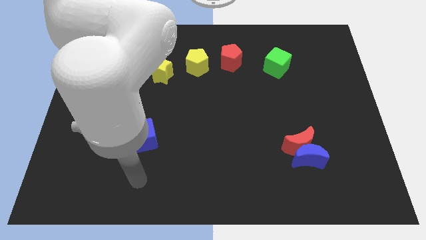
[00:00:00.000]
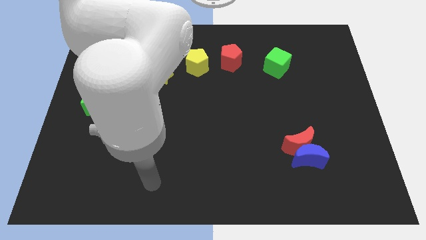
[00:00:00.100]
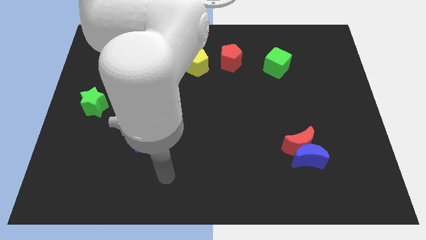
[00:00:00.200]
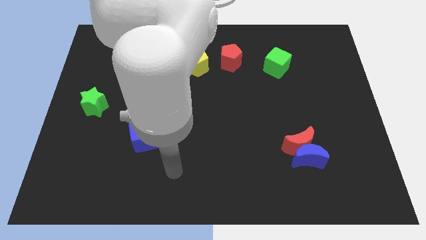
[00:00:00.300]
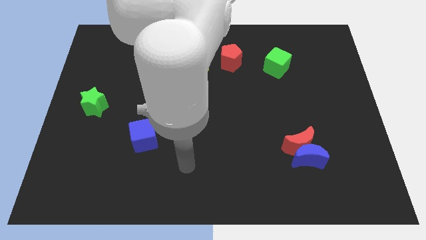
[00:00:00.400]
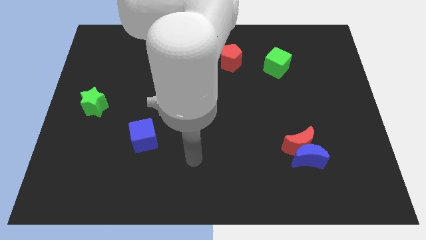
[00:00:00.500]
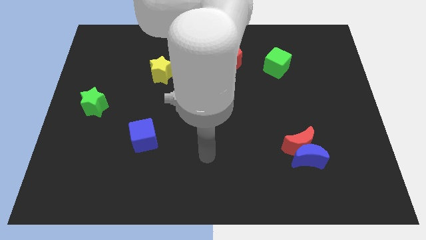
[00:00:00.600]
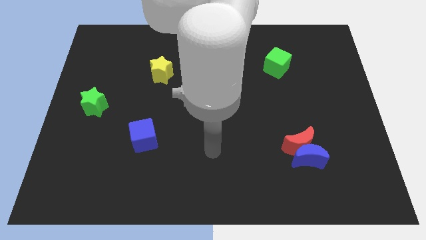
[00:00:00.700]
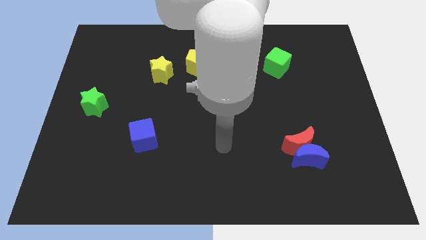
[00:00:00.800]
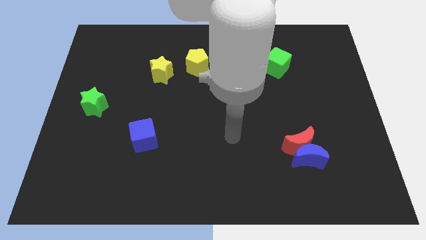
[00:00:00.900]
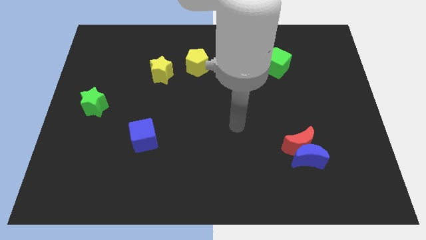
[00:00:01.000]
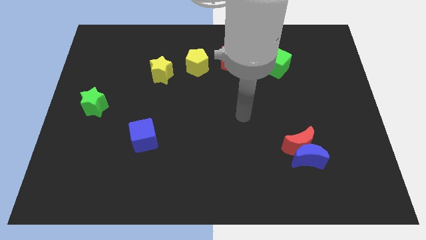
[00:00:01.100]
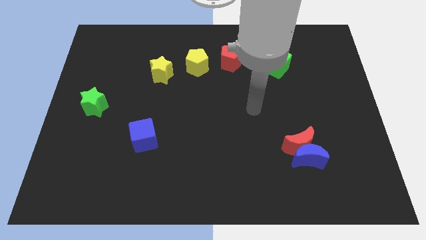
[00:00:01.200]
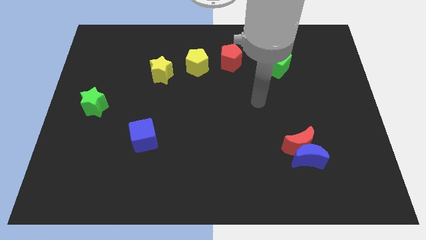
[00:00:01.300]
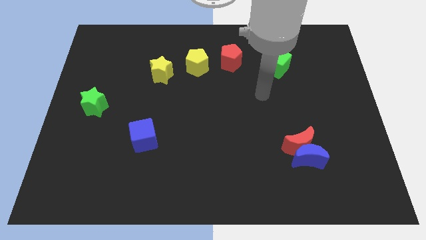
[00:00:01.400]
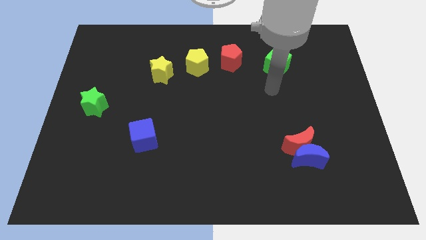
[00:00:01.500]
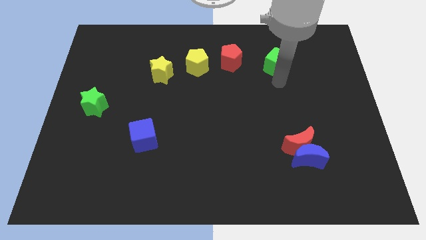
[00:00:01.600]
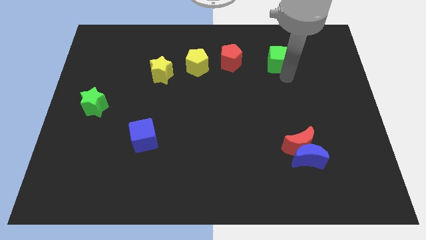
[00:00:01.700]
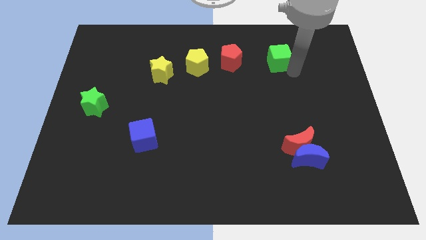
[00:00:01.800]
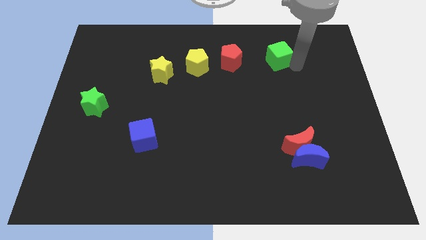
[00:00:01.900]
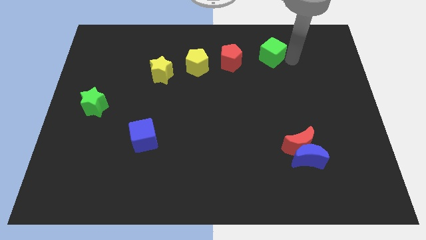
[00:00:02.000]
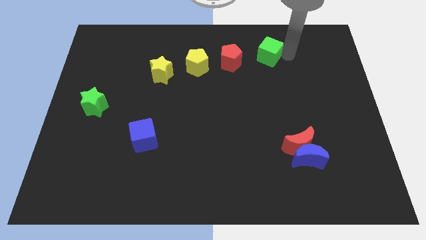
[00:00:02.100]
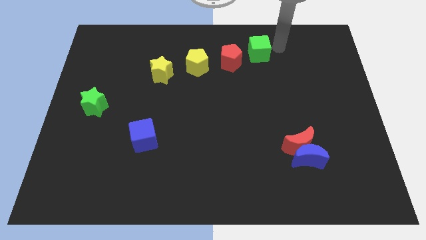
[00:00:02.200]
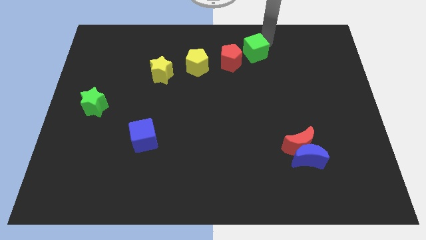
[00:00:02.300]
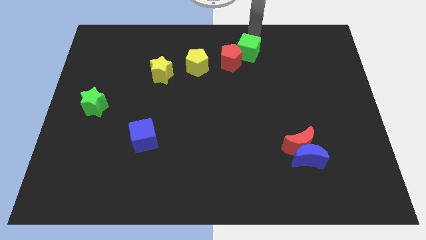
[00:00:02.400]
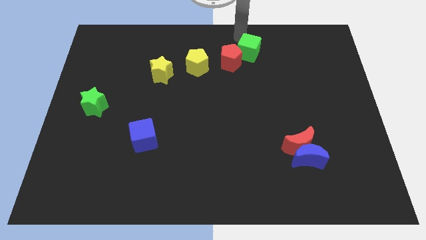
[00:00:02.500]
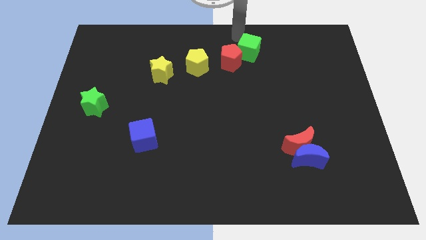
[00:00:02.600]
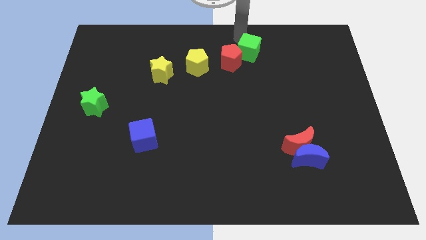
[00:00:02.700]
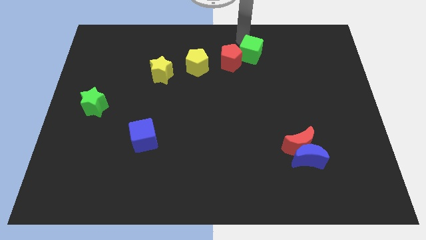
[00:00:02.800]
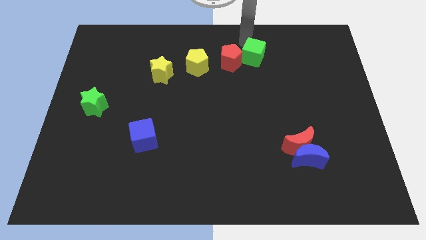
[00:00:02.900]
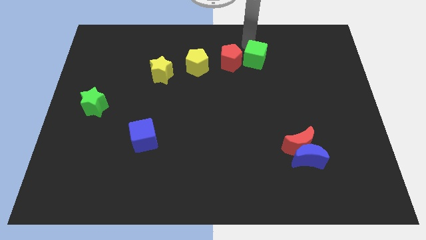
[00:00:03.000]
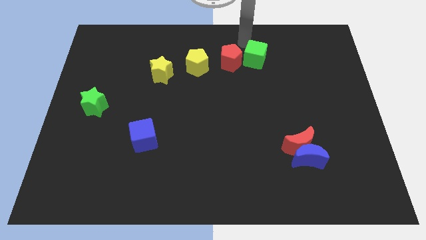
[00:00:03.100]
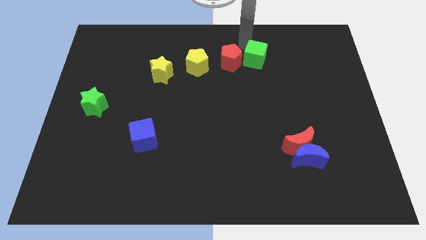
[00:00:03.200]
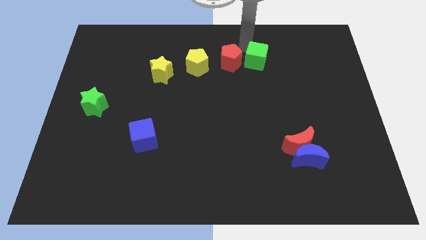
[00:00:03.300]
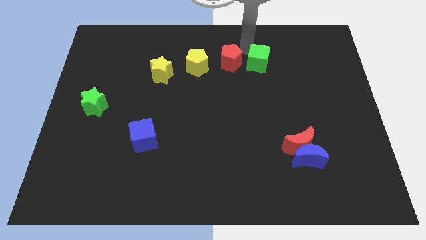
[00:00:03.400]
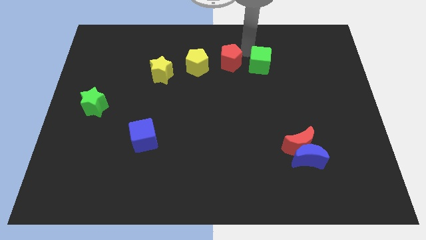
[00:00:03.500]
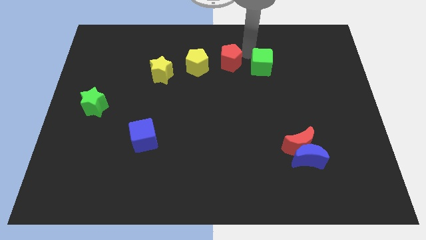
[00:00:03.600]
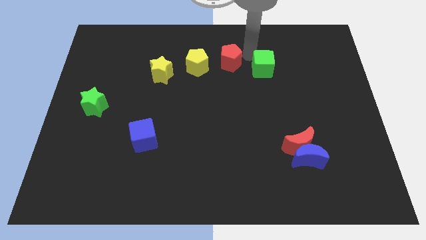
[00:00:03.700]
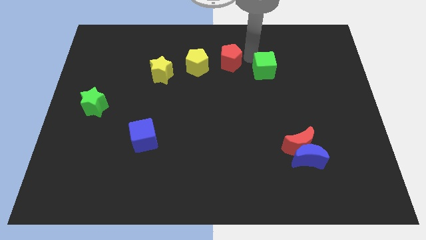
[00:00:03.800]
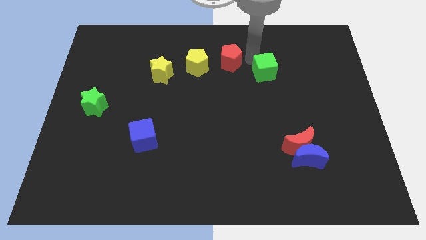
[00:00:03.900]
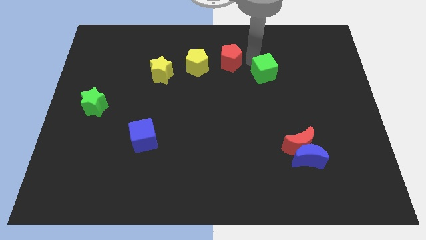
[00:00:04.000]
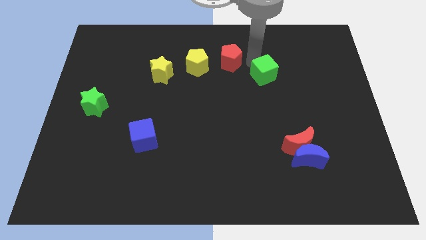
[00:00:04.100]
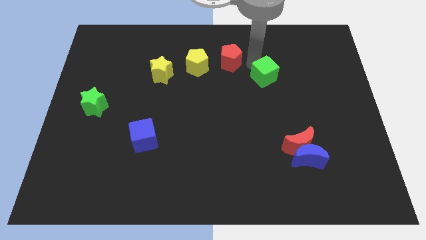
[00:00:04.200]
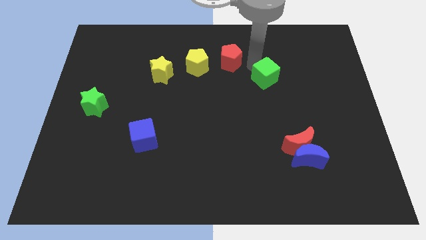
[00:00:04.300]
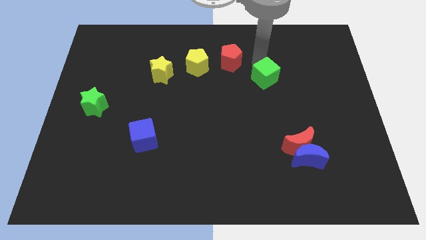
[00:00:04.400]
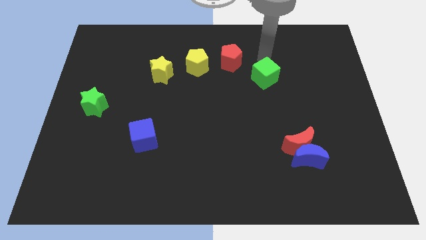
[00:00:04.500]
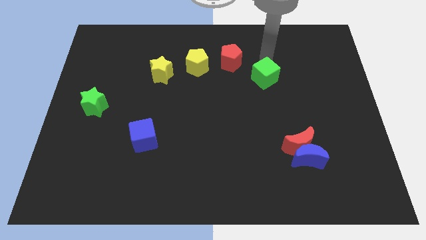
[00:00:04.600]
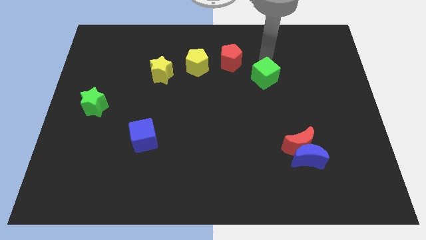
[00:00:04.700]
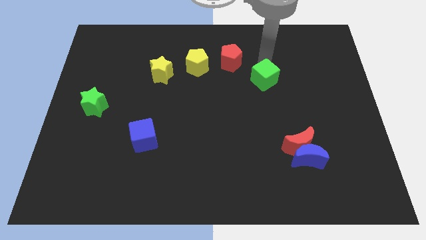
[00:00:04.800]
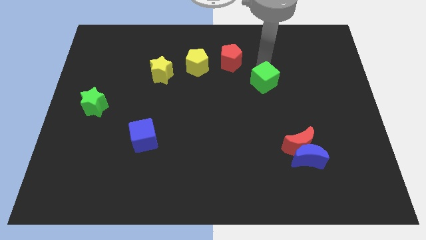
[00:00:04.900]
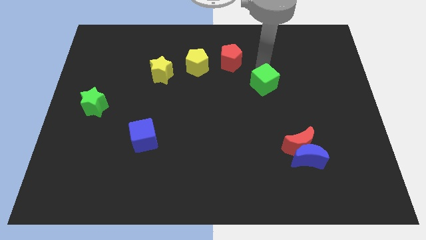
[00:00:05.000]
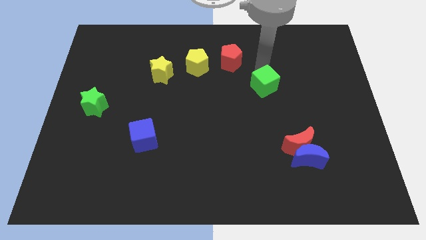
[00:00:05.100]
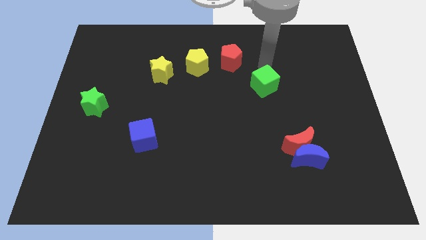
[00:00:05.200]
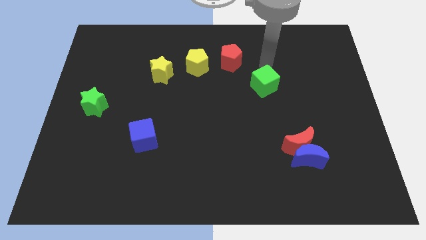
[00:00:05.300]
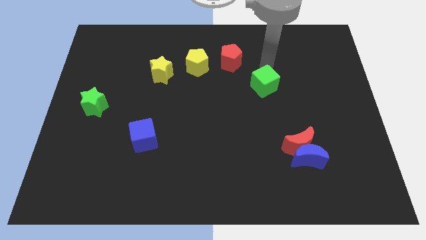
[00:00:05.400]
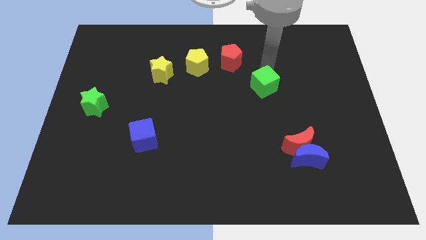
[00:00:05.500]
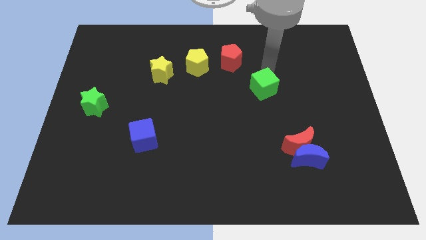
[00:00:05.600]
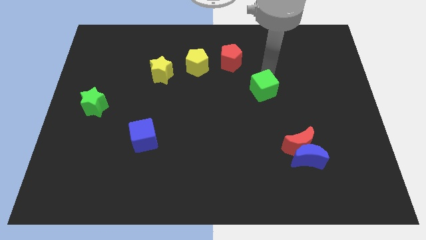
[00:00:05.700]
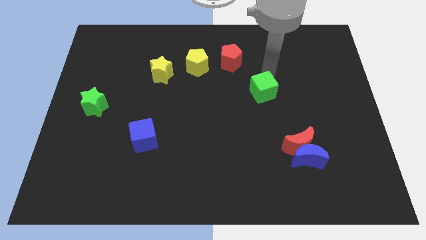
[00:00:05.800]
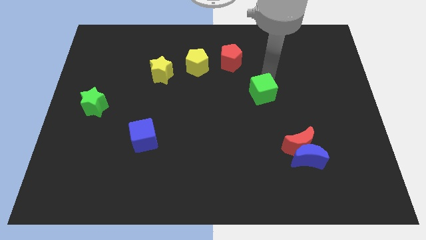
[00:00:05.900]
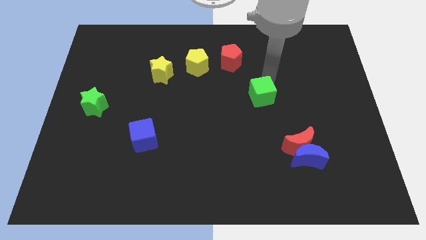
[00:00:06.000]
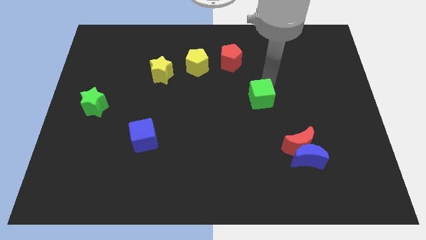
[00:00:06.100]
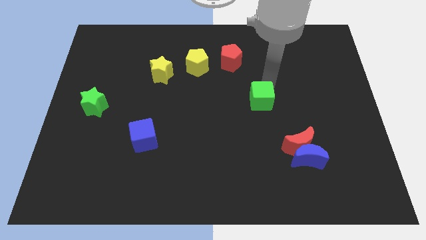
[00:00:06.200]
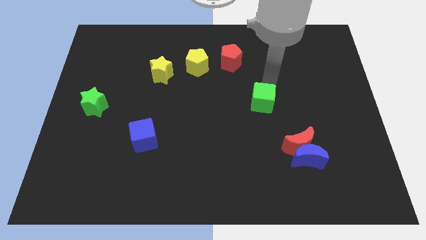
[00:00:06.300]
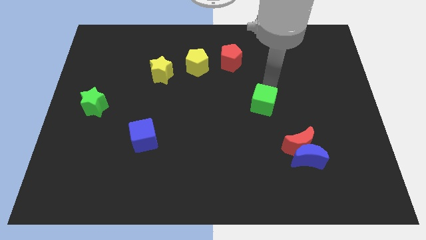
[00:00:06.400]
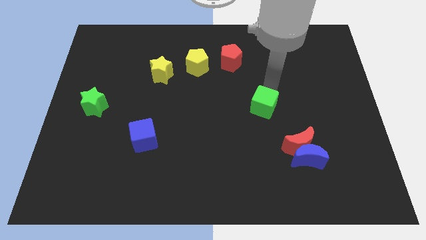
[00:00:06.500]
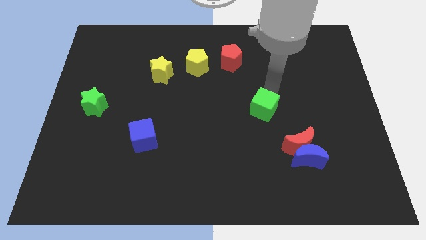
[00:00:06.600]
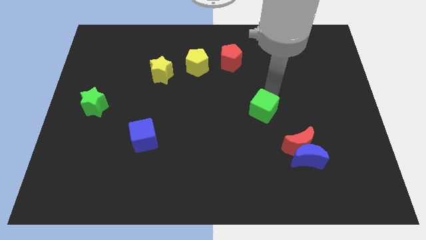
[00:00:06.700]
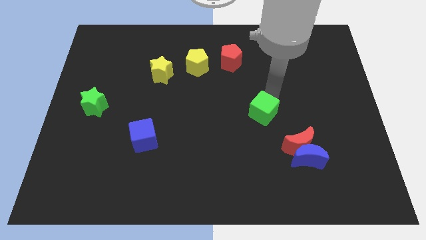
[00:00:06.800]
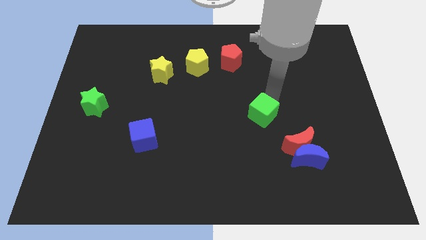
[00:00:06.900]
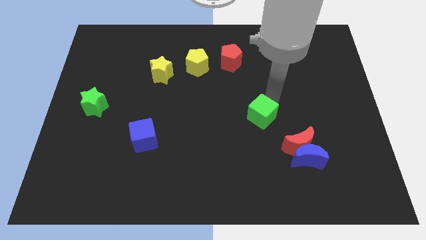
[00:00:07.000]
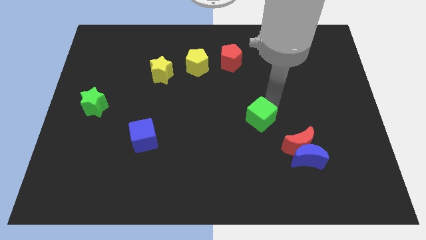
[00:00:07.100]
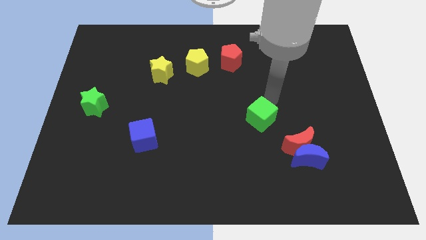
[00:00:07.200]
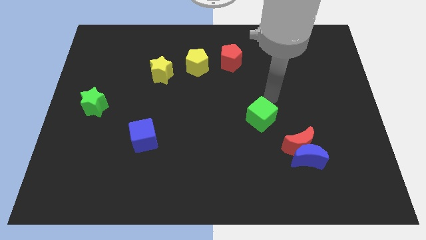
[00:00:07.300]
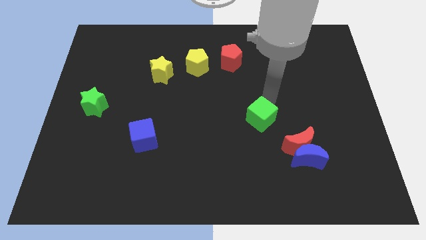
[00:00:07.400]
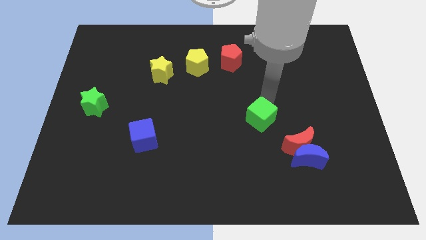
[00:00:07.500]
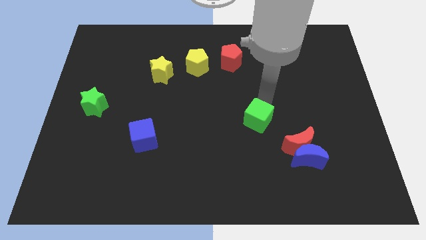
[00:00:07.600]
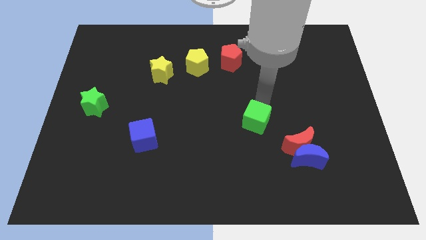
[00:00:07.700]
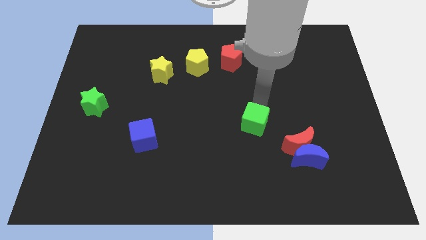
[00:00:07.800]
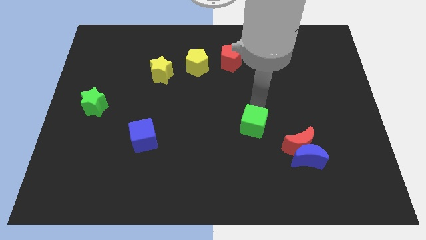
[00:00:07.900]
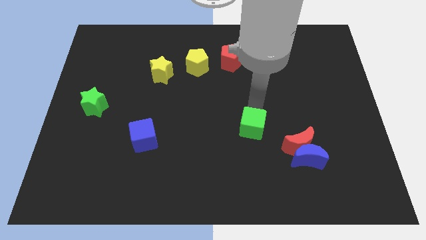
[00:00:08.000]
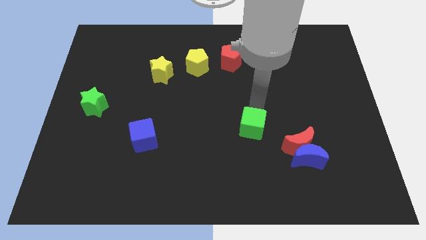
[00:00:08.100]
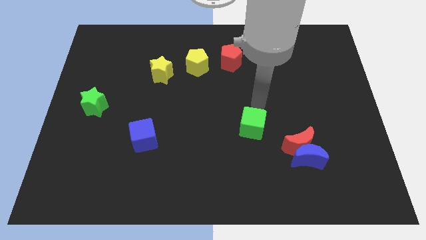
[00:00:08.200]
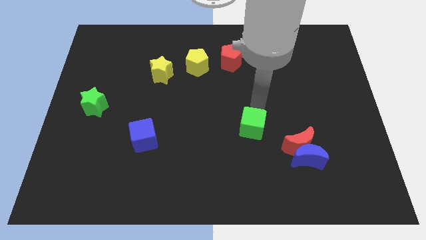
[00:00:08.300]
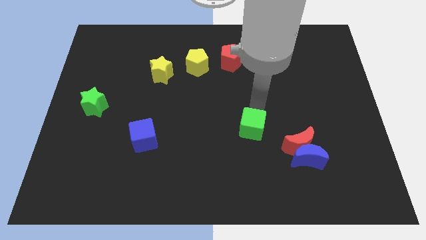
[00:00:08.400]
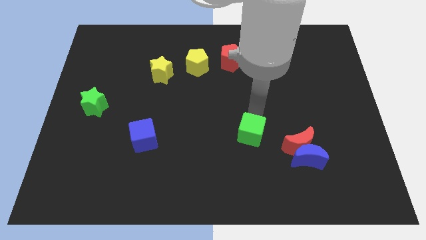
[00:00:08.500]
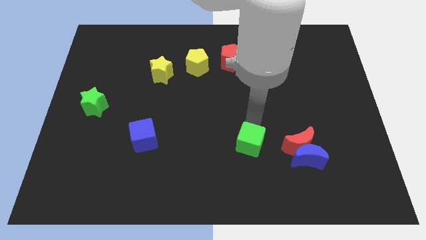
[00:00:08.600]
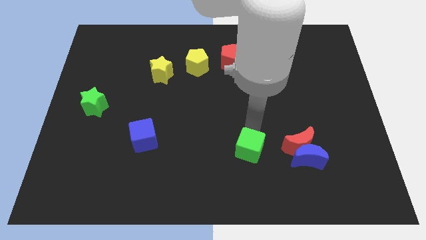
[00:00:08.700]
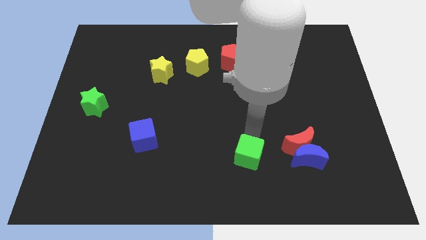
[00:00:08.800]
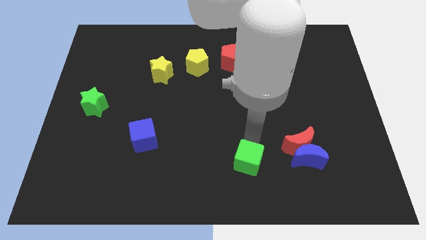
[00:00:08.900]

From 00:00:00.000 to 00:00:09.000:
move the green cube to the bottom side
